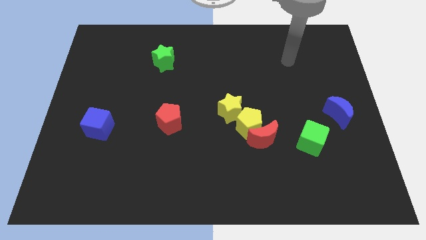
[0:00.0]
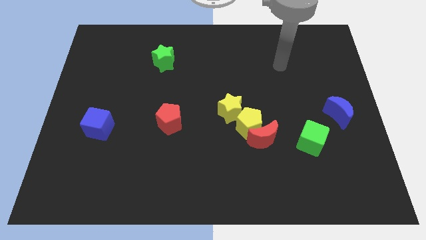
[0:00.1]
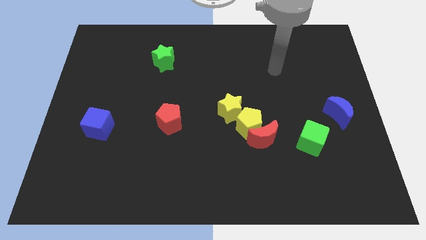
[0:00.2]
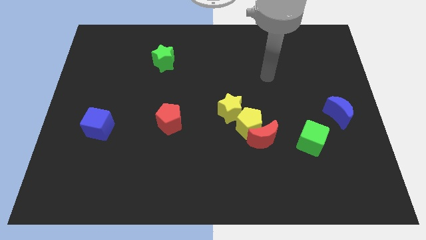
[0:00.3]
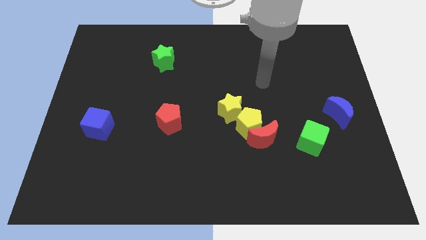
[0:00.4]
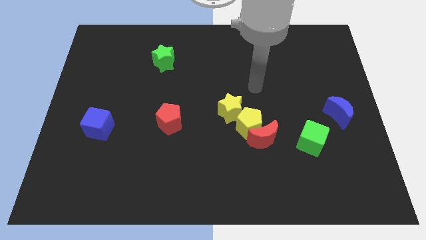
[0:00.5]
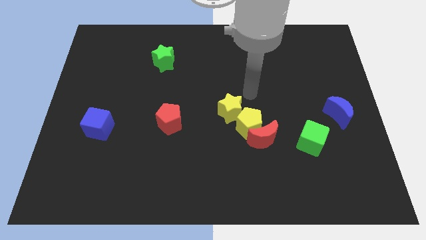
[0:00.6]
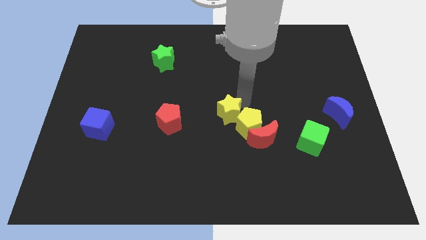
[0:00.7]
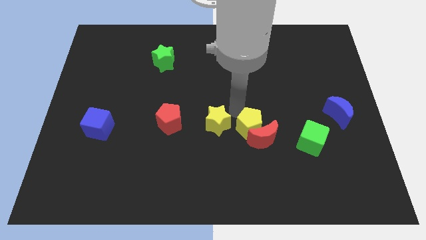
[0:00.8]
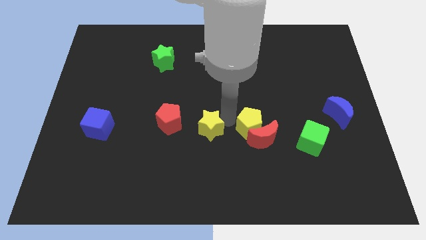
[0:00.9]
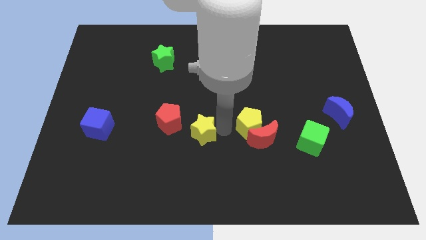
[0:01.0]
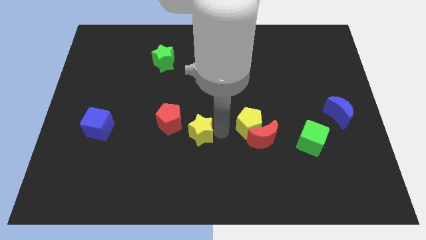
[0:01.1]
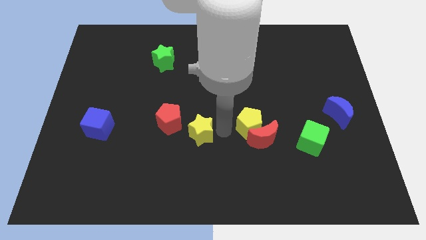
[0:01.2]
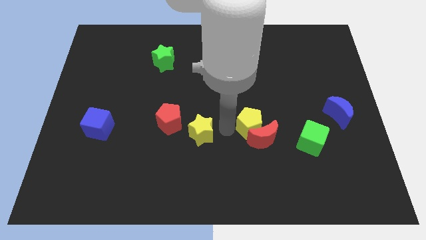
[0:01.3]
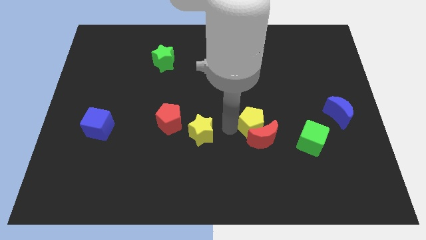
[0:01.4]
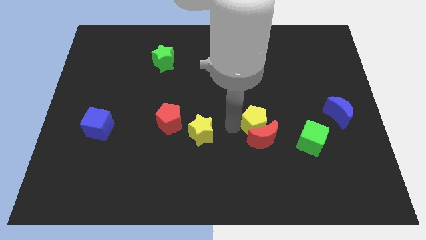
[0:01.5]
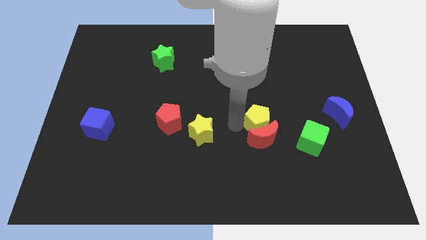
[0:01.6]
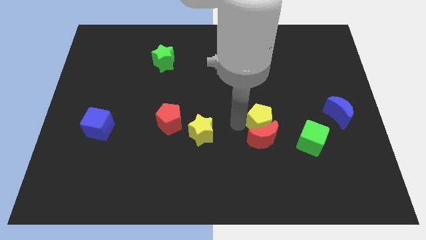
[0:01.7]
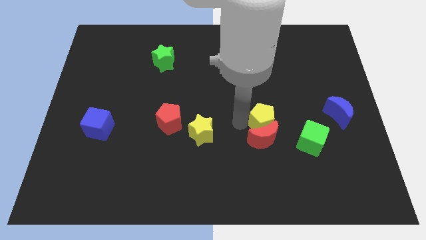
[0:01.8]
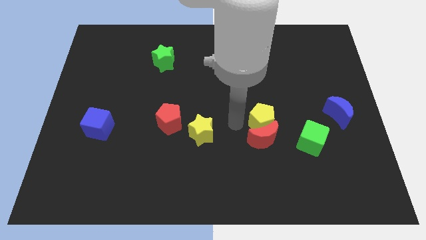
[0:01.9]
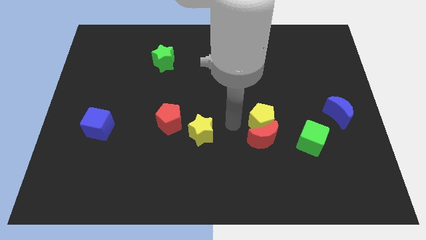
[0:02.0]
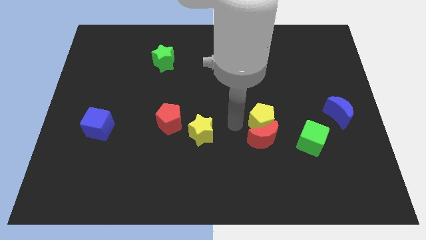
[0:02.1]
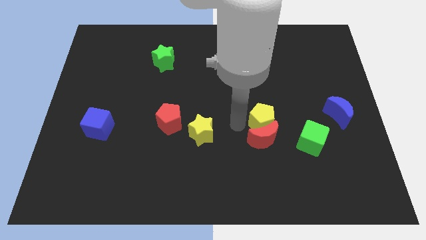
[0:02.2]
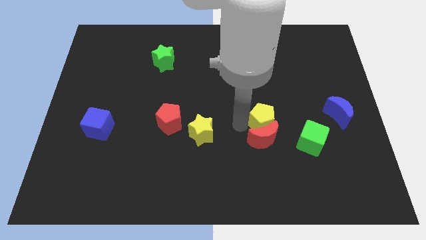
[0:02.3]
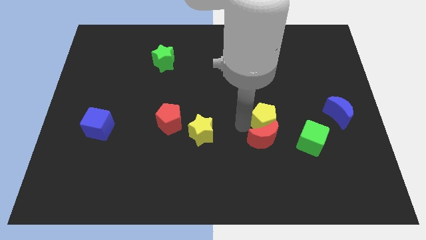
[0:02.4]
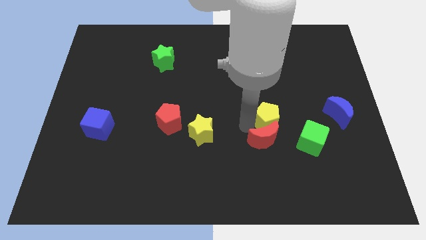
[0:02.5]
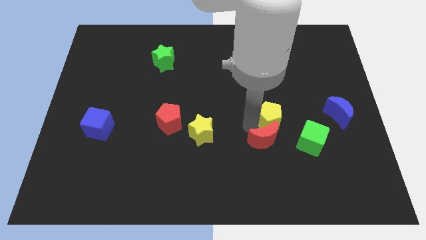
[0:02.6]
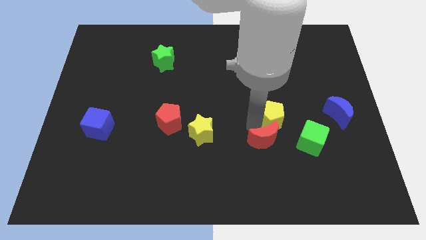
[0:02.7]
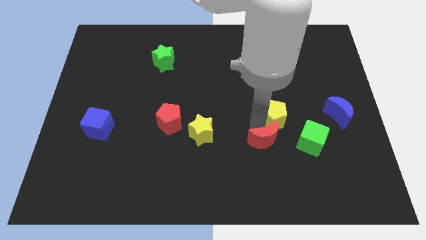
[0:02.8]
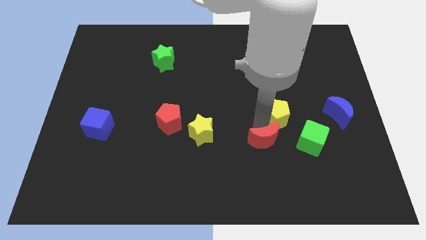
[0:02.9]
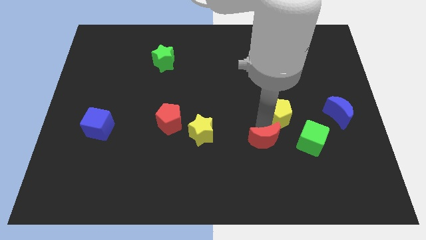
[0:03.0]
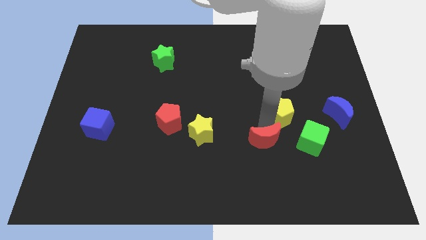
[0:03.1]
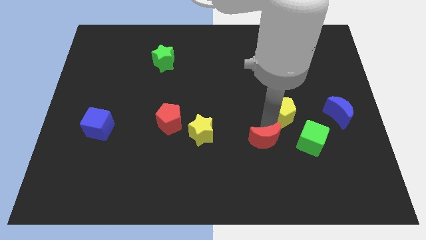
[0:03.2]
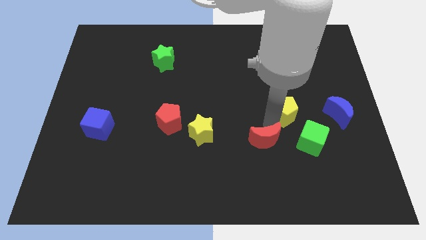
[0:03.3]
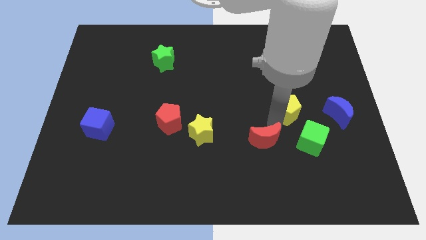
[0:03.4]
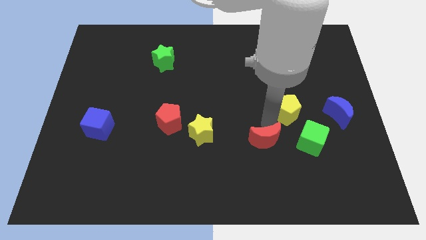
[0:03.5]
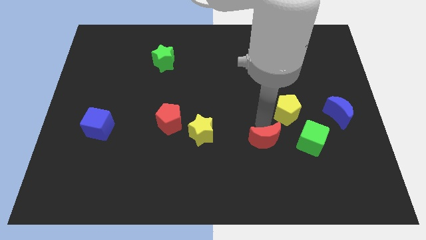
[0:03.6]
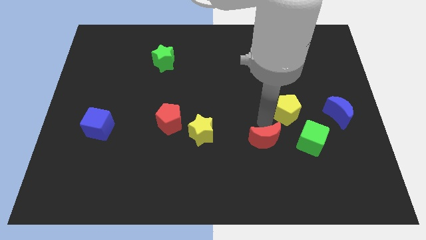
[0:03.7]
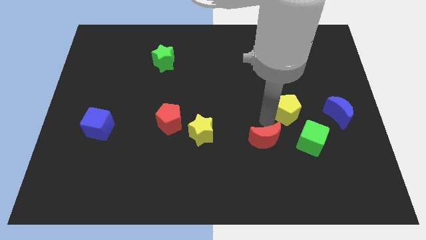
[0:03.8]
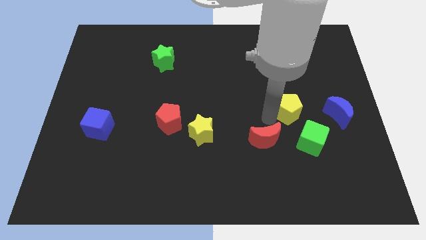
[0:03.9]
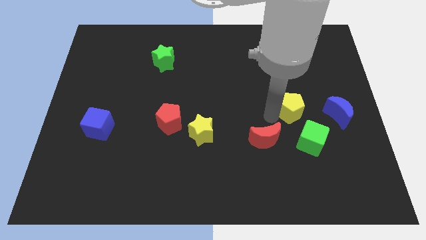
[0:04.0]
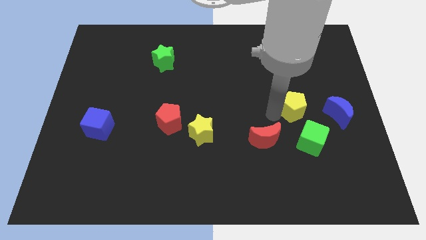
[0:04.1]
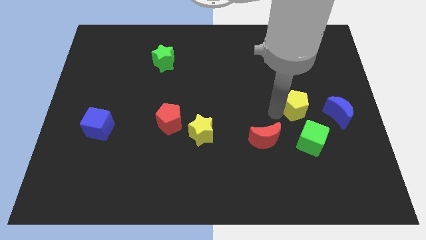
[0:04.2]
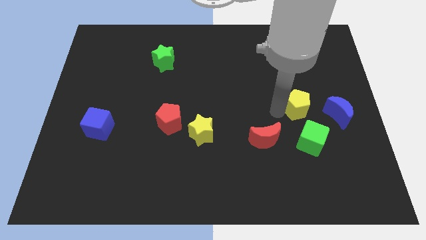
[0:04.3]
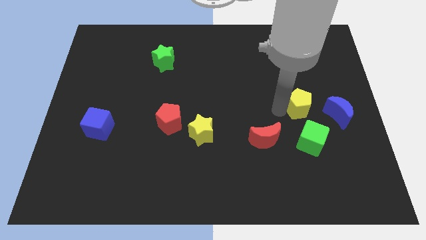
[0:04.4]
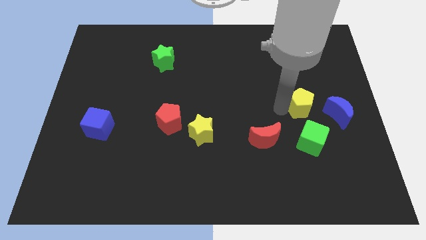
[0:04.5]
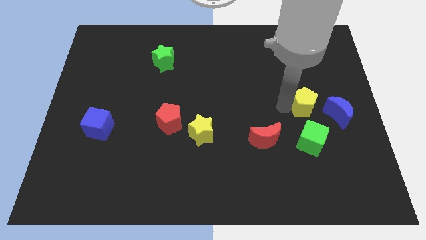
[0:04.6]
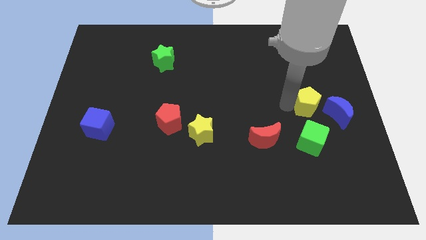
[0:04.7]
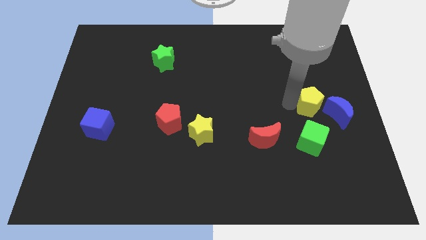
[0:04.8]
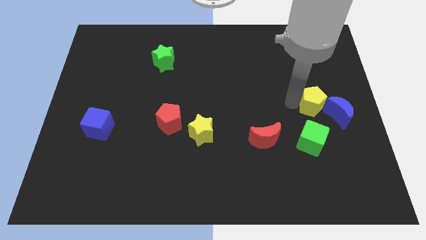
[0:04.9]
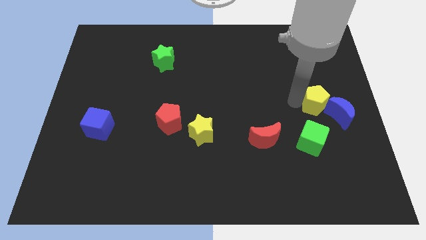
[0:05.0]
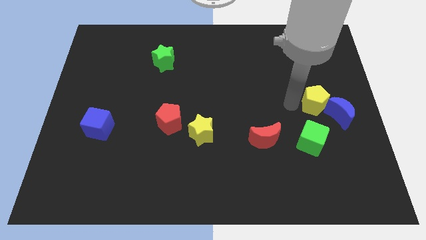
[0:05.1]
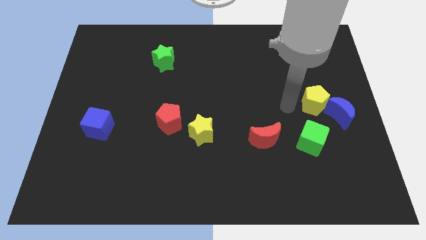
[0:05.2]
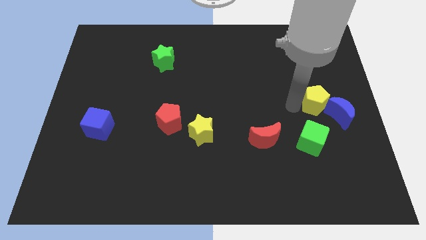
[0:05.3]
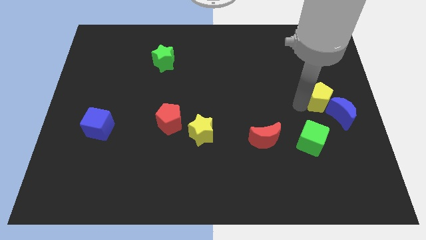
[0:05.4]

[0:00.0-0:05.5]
move the yellow pentagon to the right side
